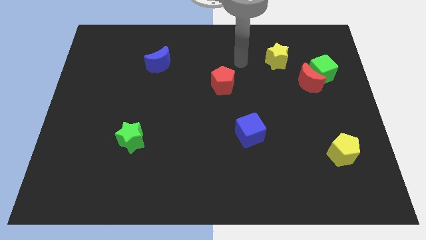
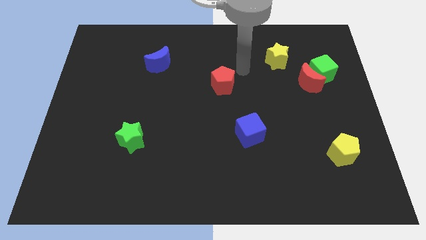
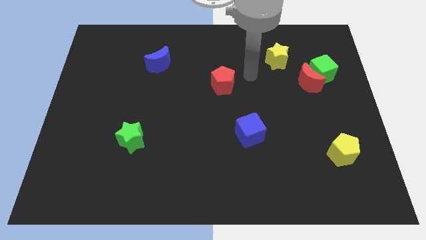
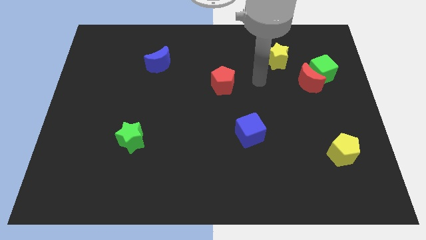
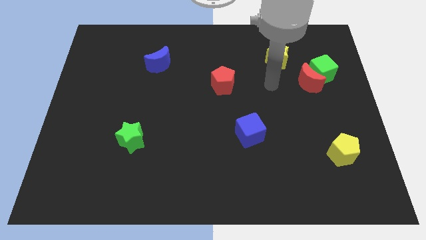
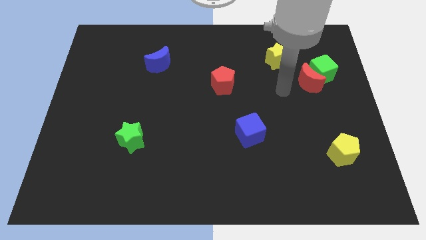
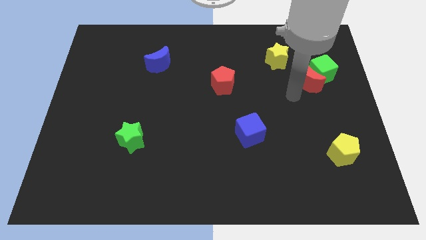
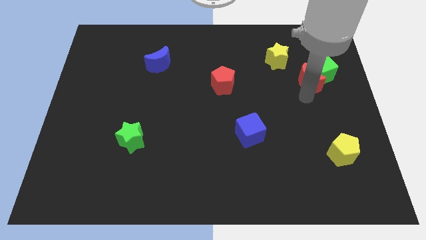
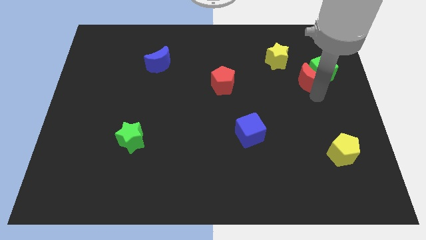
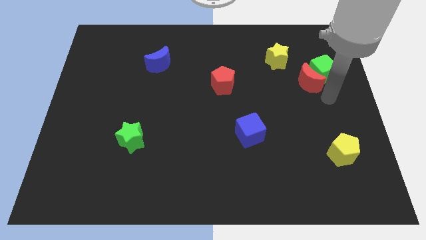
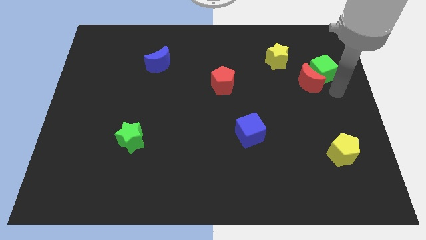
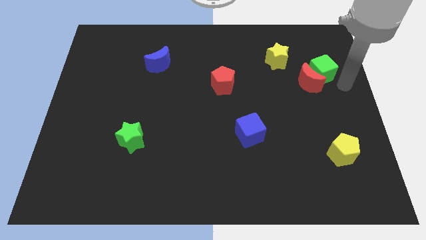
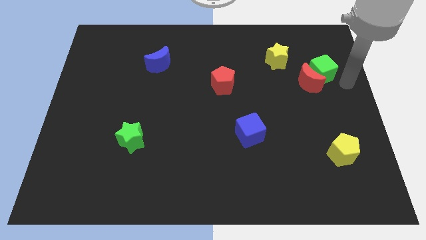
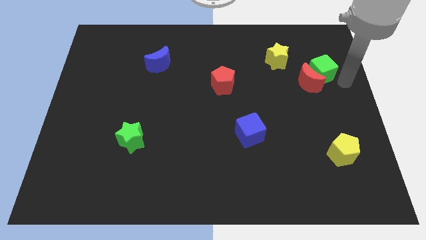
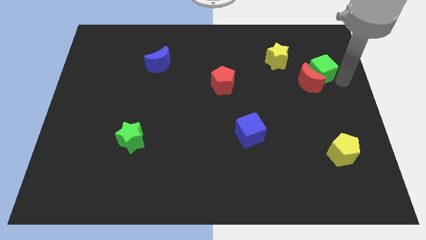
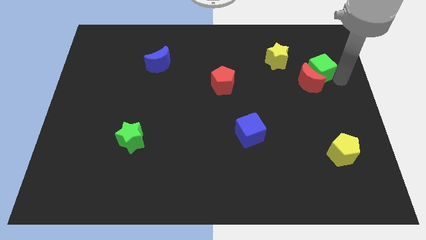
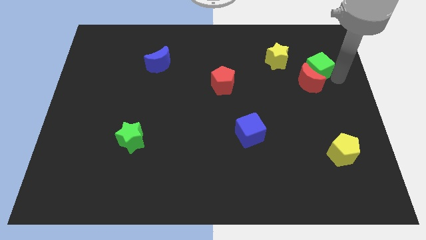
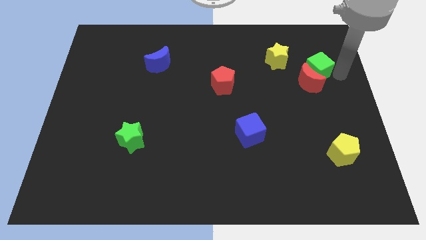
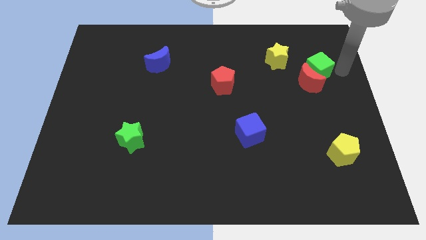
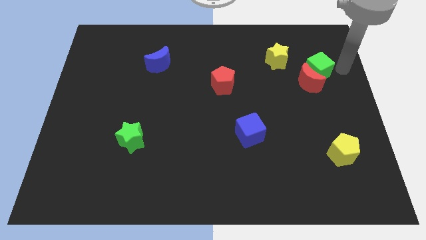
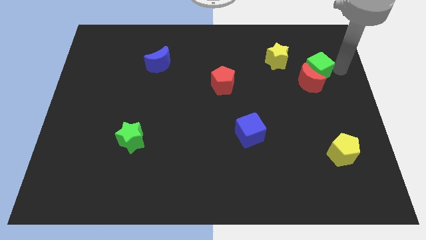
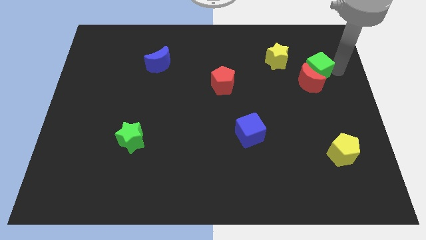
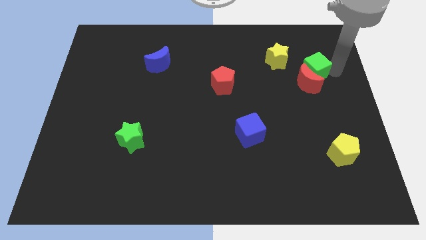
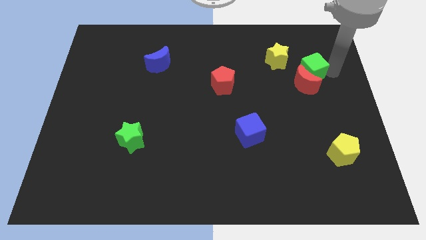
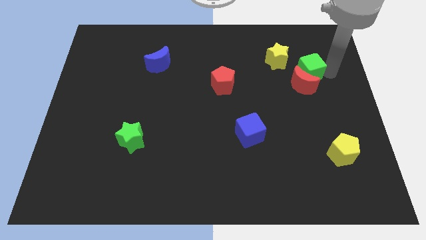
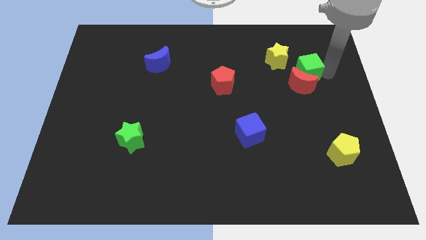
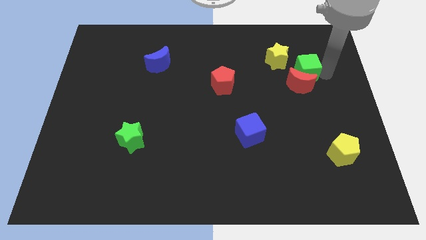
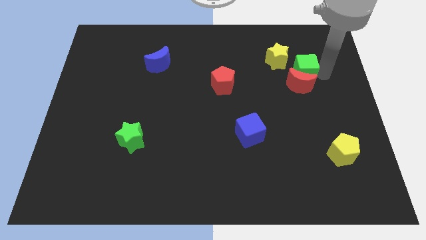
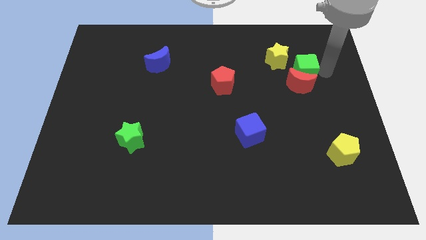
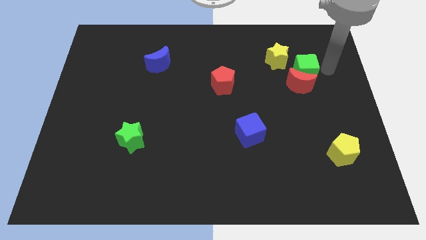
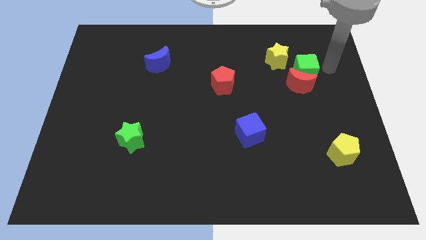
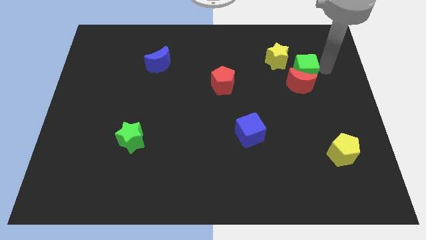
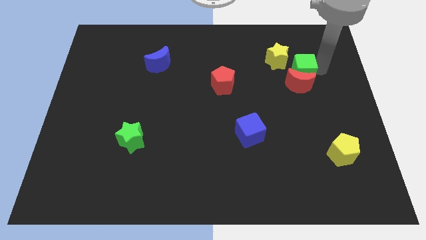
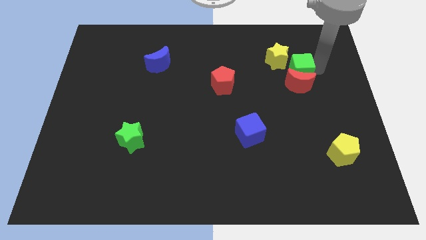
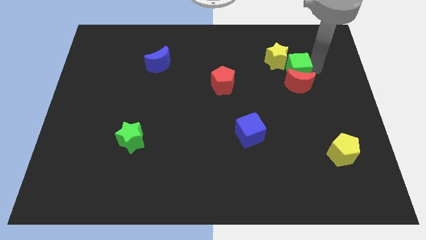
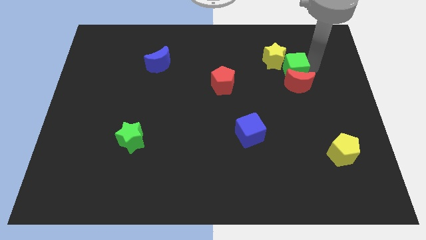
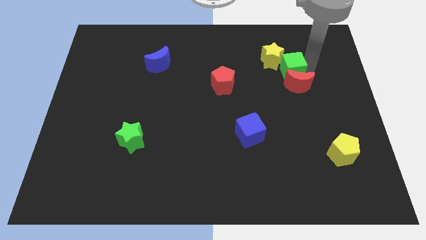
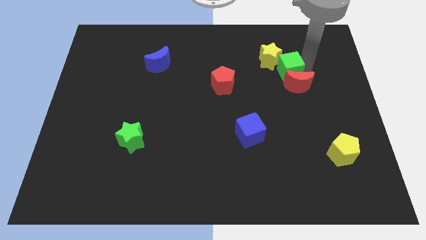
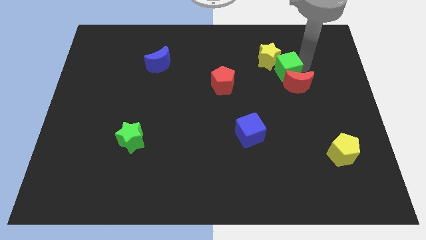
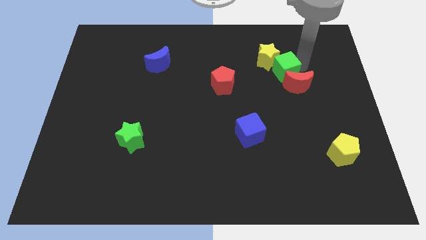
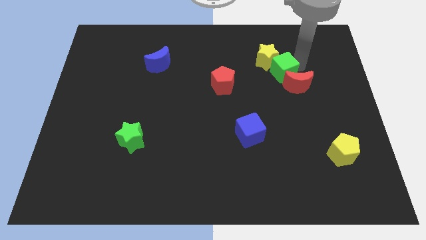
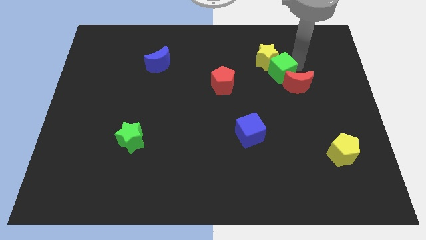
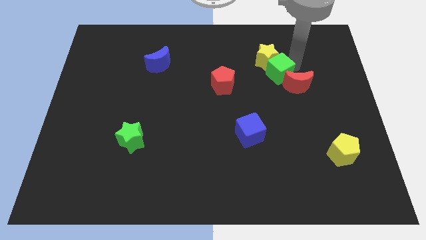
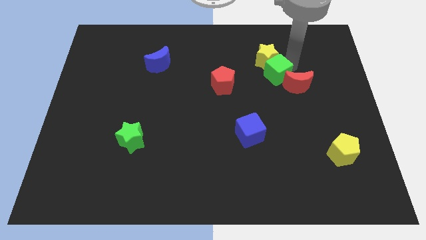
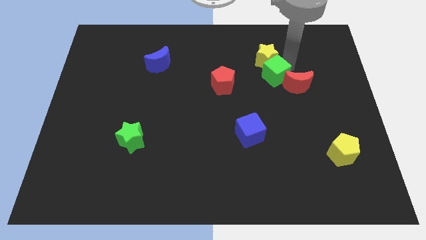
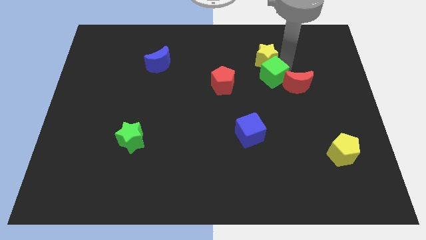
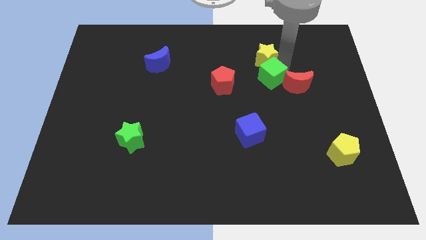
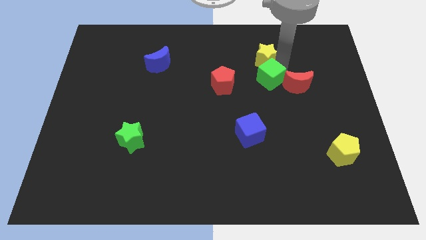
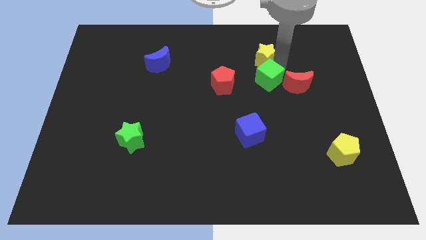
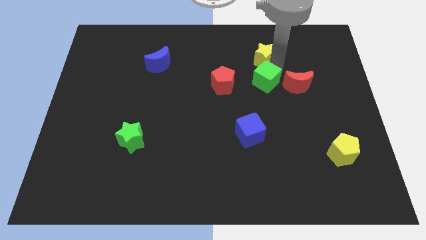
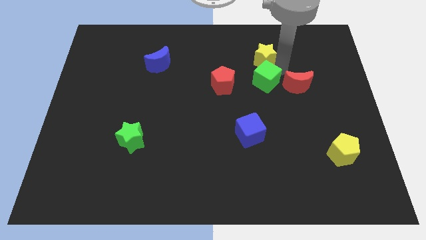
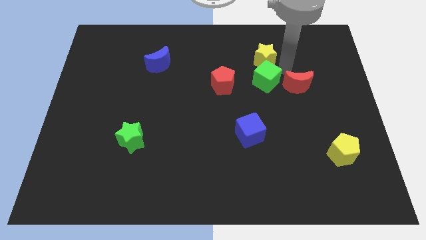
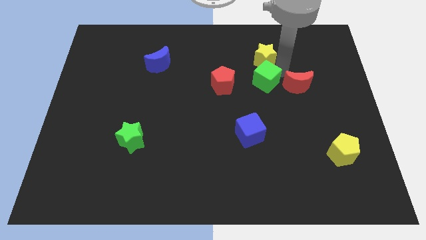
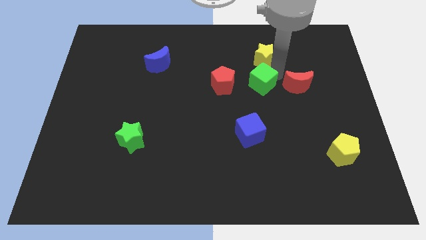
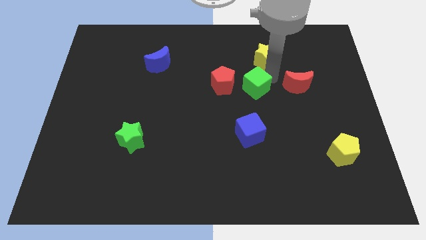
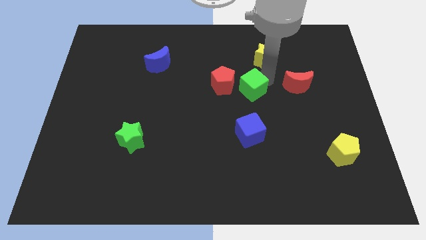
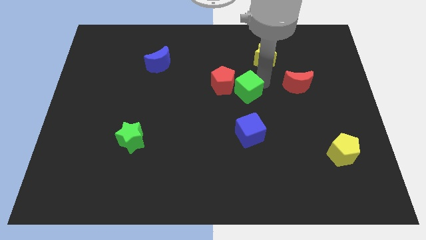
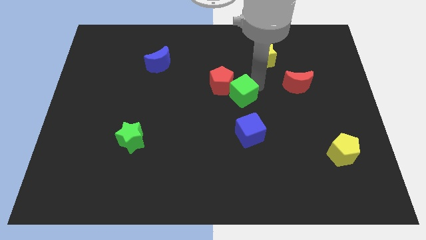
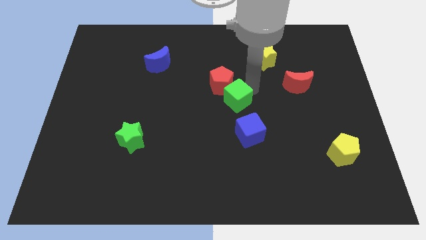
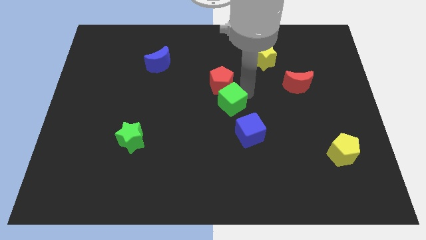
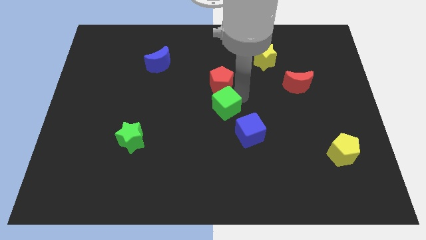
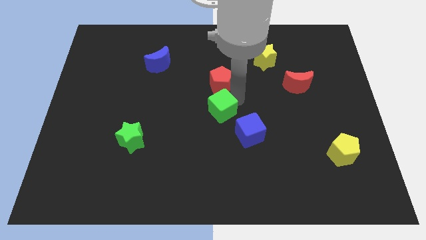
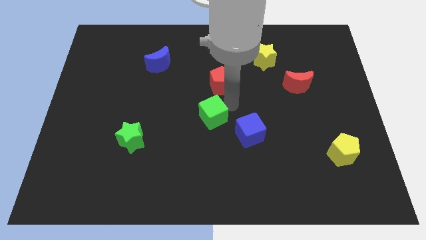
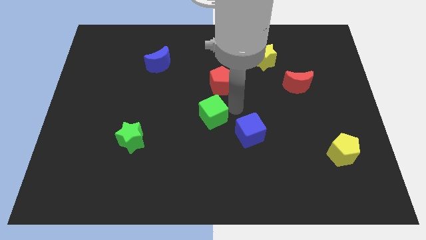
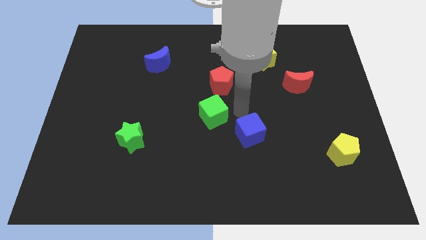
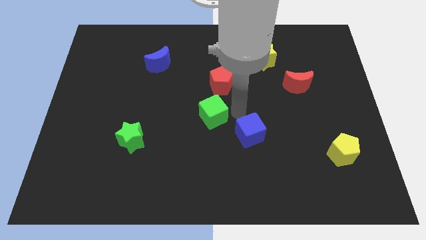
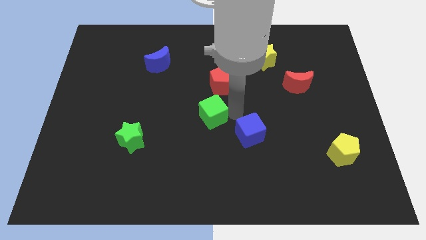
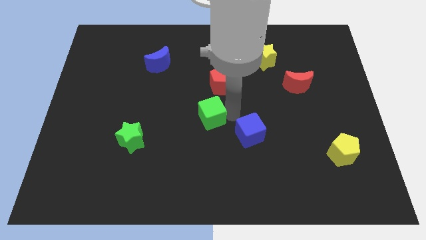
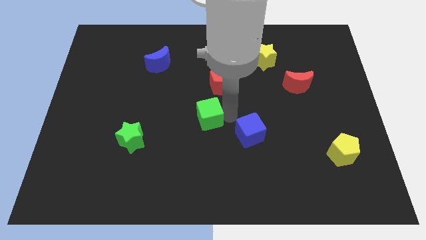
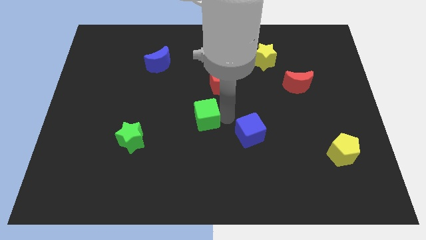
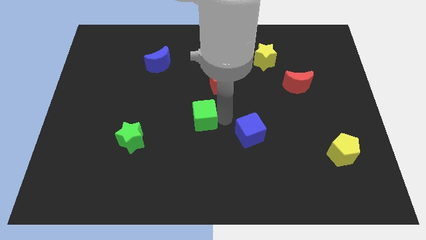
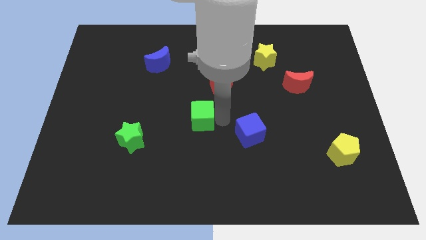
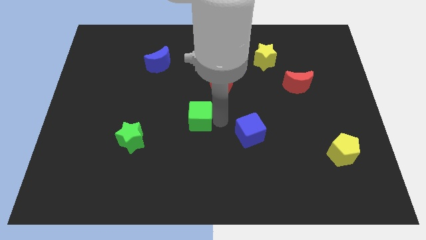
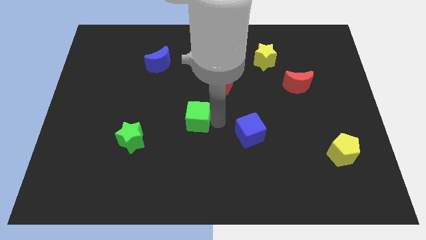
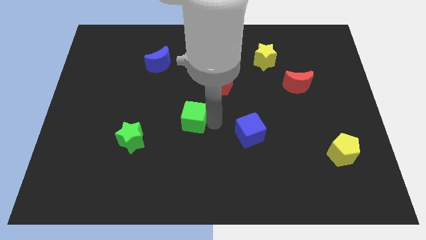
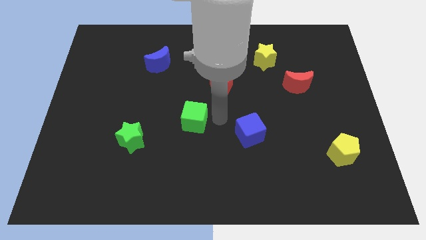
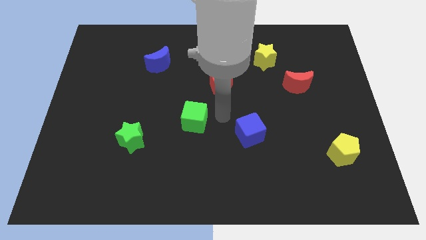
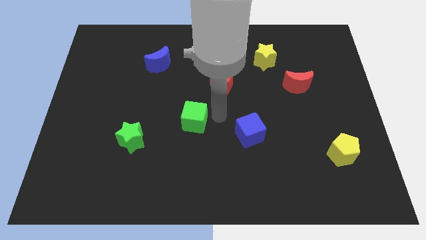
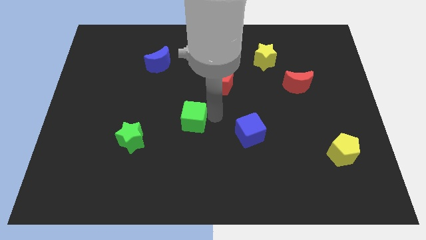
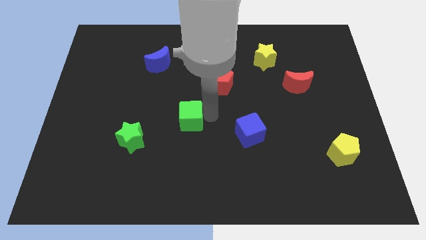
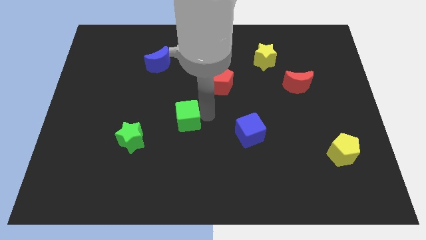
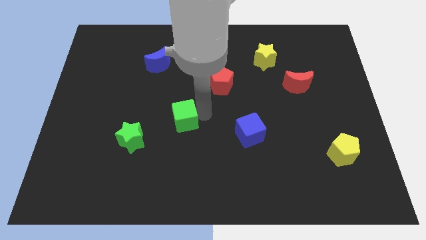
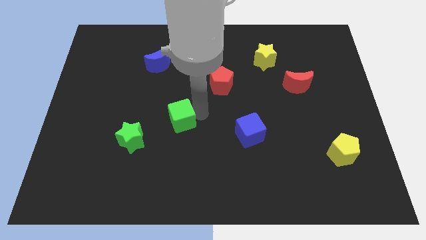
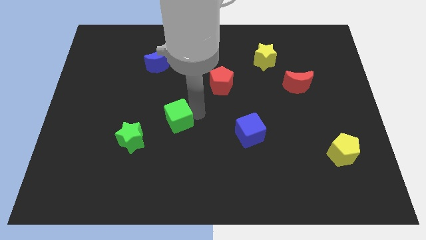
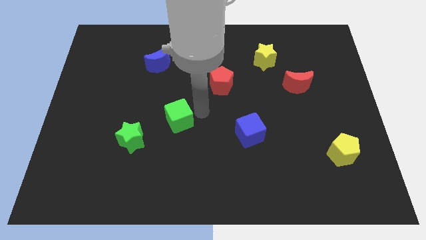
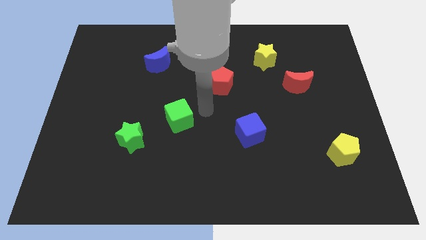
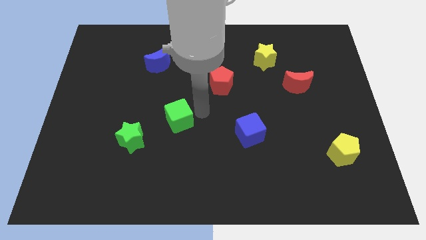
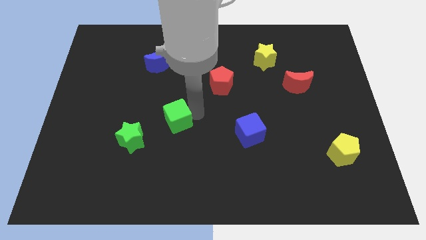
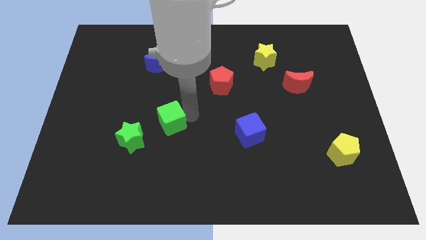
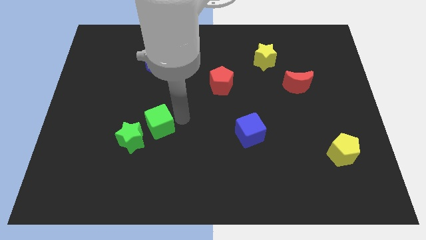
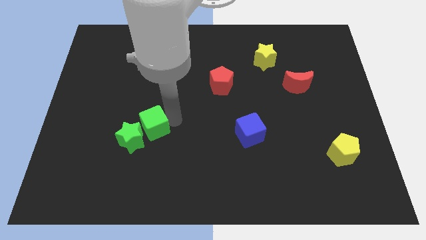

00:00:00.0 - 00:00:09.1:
push the green cube to the green star
